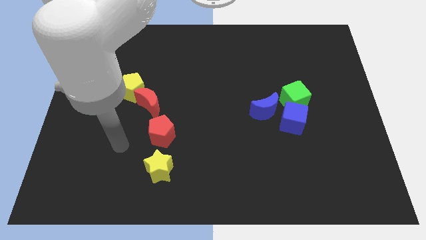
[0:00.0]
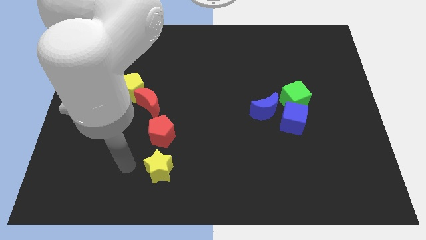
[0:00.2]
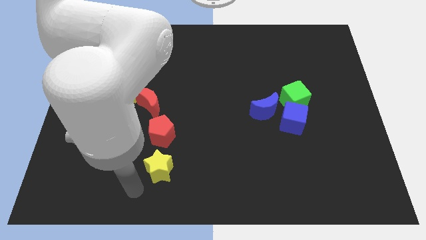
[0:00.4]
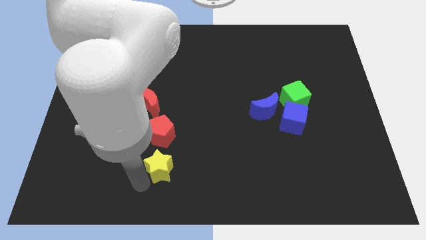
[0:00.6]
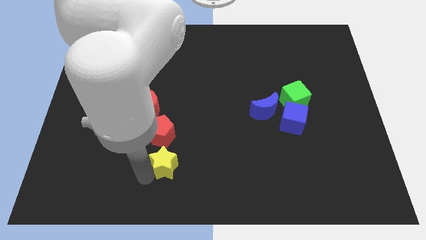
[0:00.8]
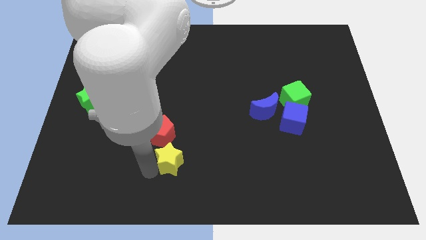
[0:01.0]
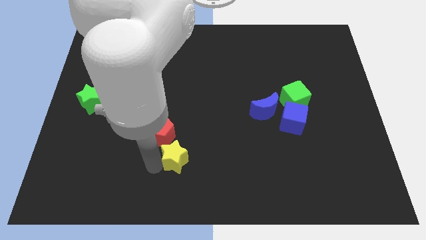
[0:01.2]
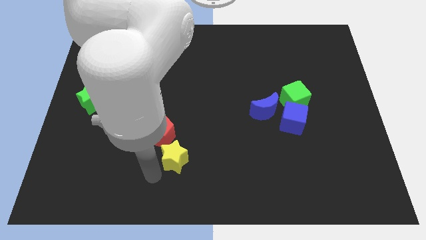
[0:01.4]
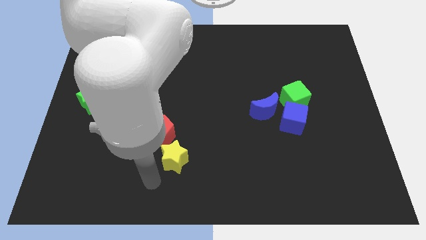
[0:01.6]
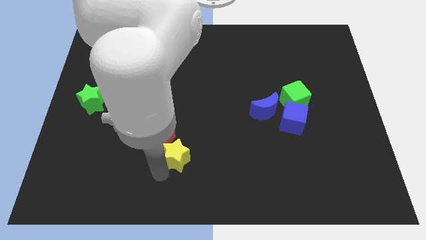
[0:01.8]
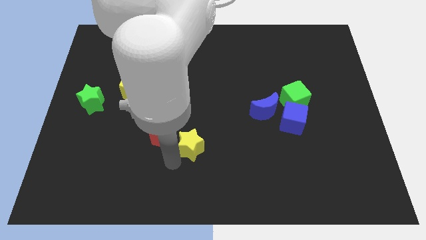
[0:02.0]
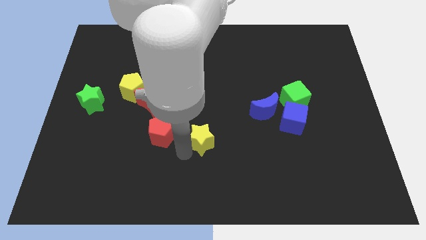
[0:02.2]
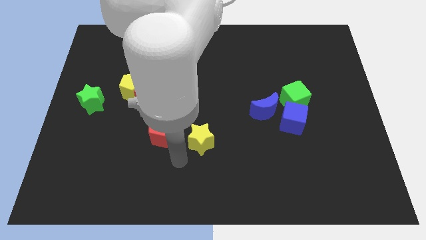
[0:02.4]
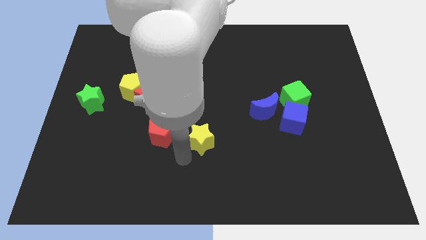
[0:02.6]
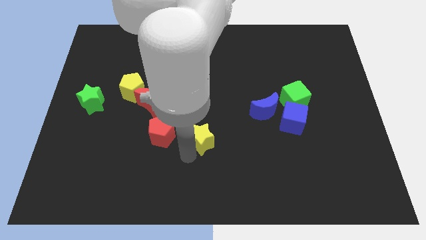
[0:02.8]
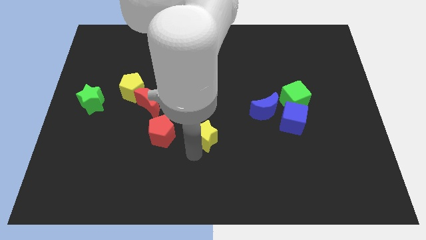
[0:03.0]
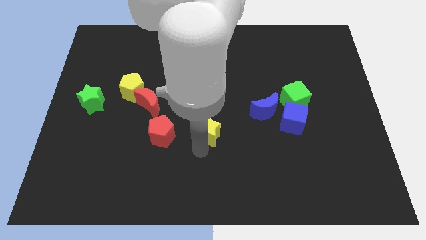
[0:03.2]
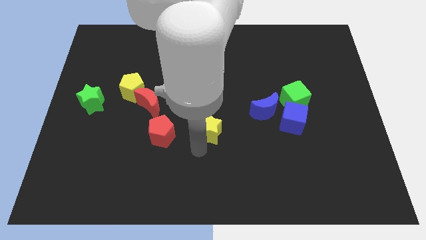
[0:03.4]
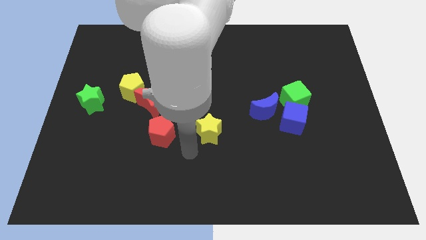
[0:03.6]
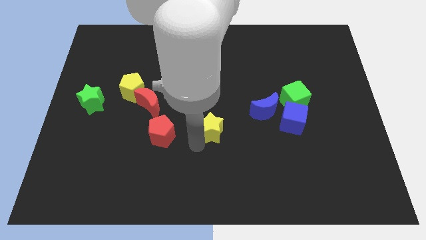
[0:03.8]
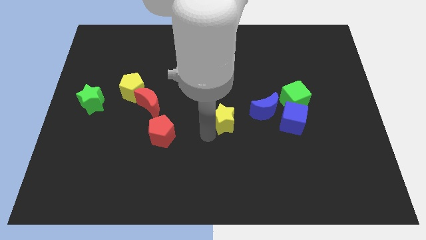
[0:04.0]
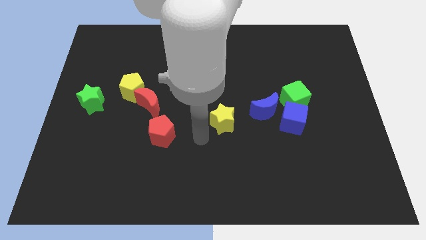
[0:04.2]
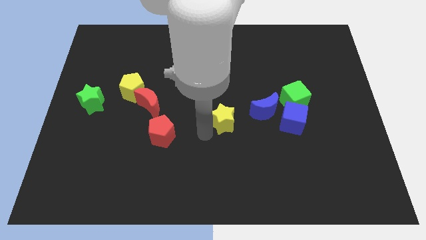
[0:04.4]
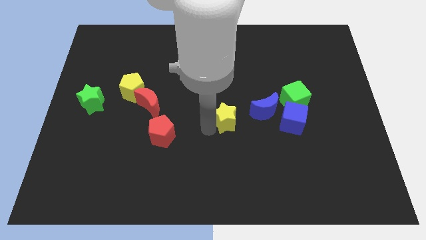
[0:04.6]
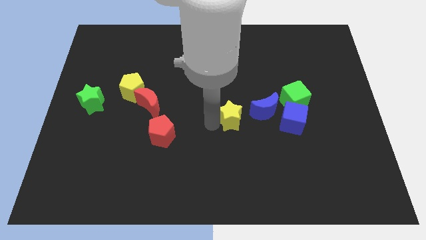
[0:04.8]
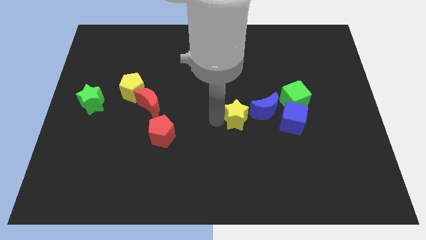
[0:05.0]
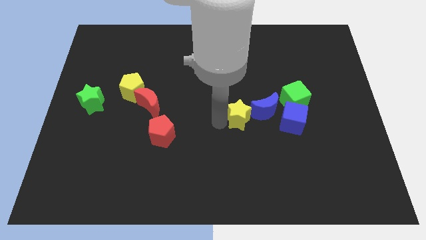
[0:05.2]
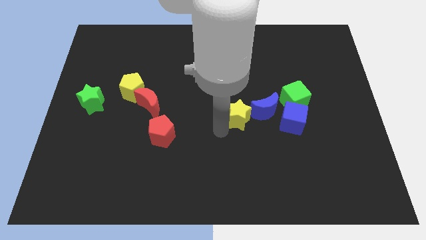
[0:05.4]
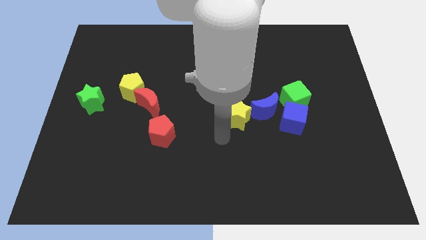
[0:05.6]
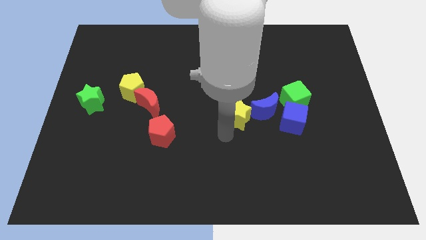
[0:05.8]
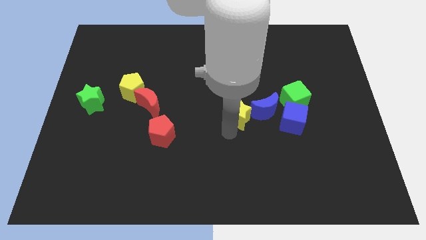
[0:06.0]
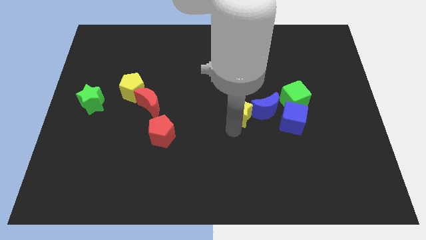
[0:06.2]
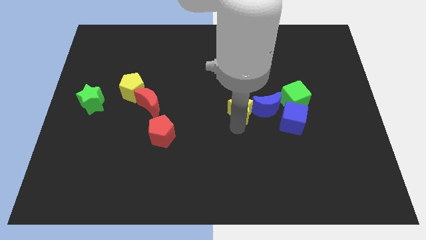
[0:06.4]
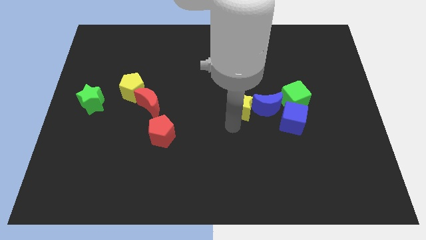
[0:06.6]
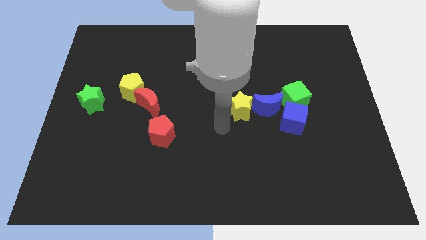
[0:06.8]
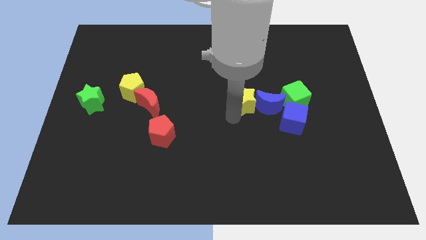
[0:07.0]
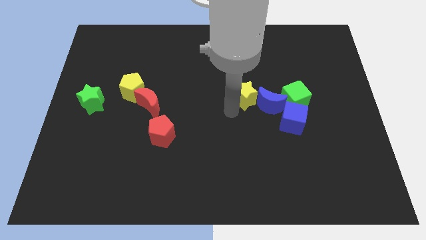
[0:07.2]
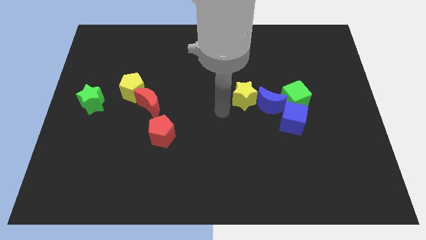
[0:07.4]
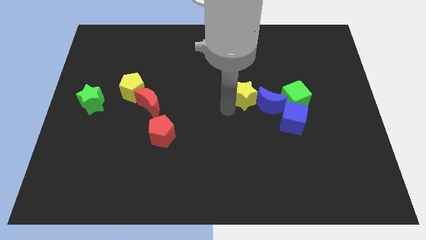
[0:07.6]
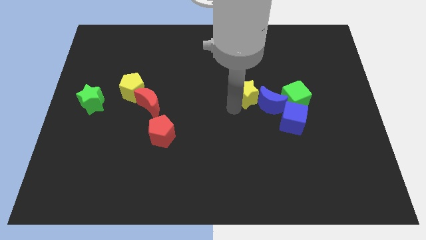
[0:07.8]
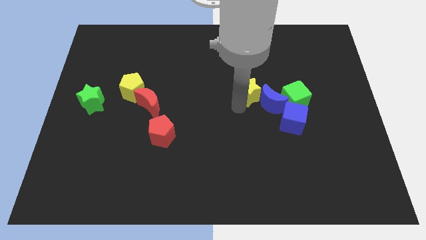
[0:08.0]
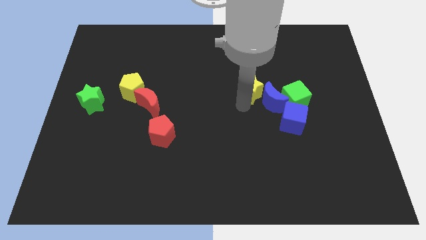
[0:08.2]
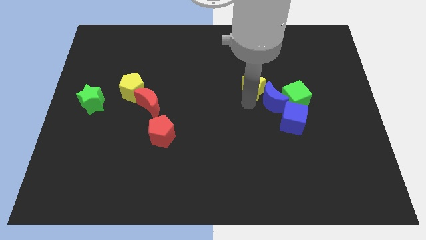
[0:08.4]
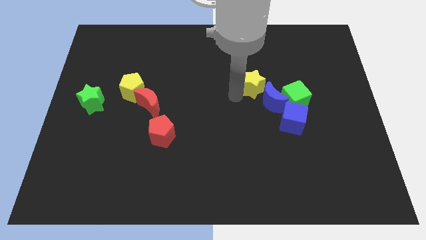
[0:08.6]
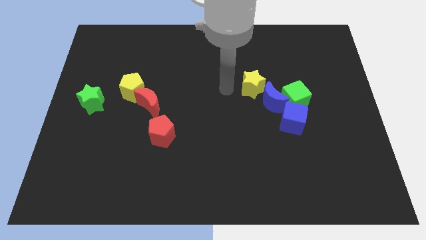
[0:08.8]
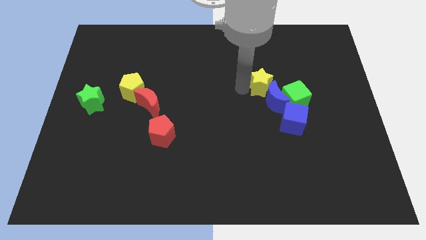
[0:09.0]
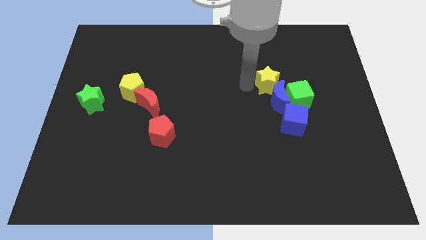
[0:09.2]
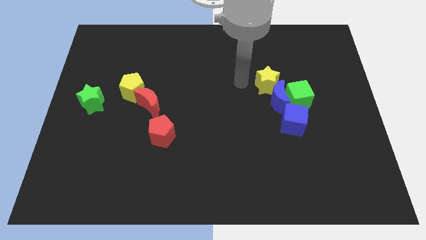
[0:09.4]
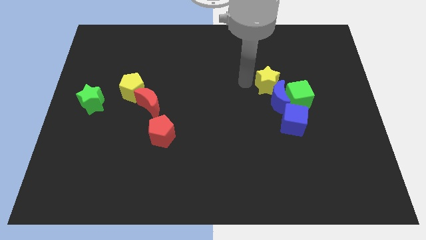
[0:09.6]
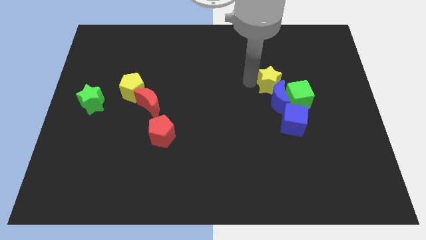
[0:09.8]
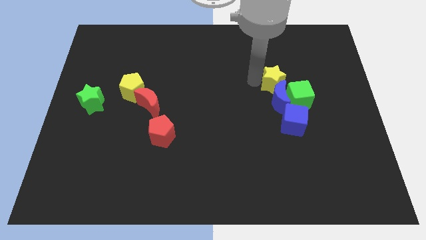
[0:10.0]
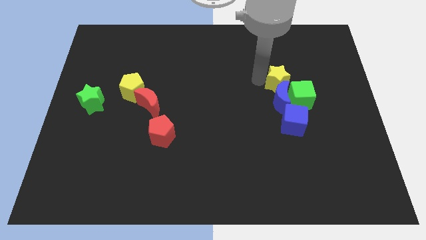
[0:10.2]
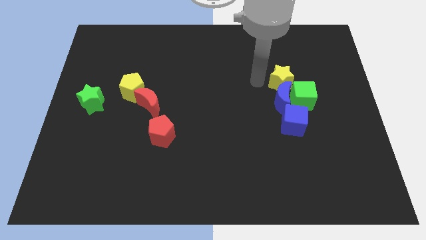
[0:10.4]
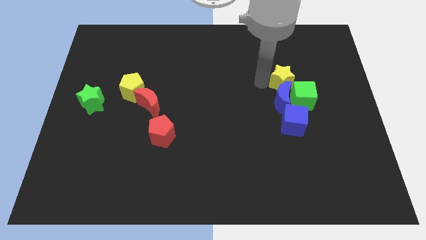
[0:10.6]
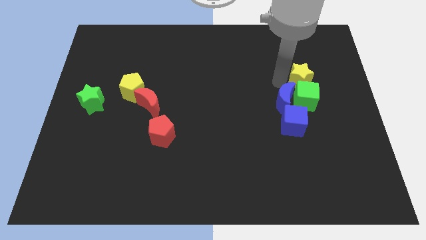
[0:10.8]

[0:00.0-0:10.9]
push the yellow star to the top right side of the green cube

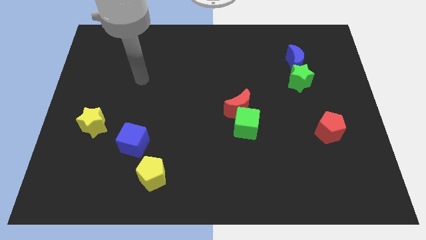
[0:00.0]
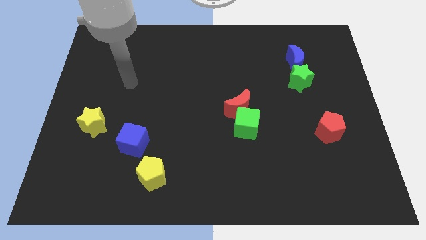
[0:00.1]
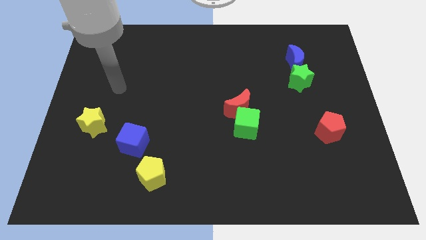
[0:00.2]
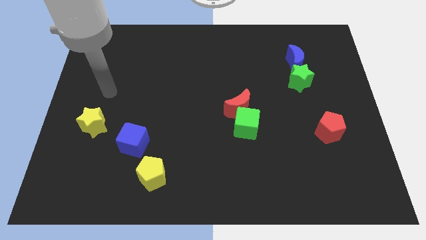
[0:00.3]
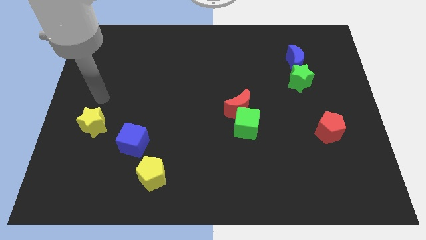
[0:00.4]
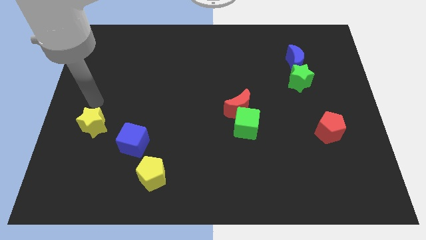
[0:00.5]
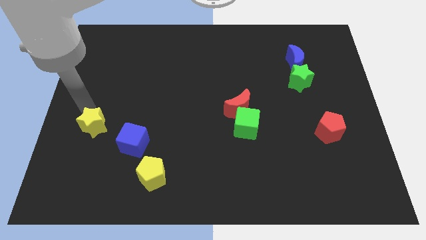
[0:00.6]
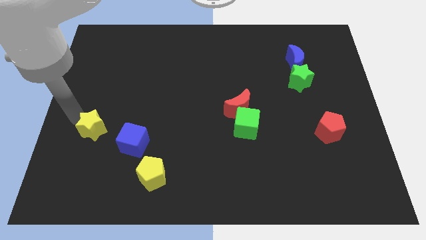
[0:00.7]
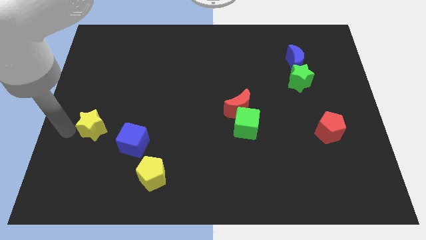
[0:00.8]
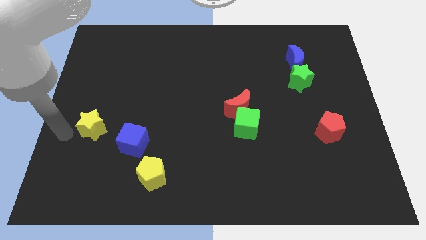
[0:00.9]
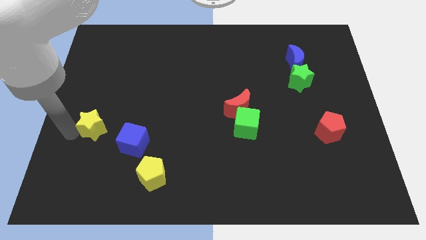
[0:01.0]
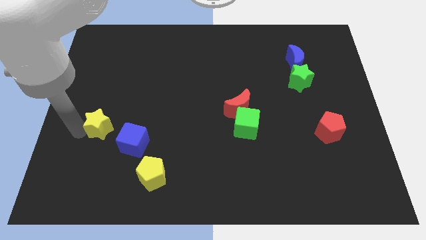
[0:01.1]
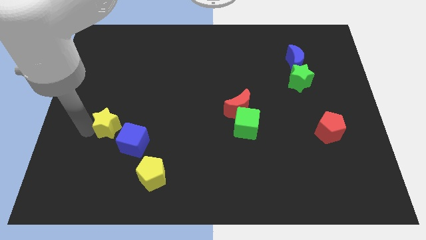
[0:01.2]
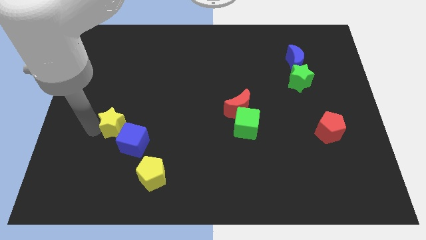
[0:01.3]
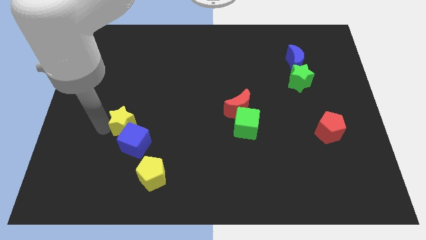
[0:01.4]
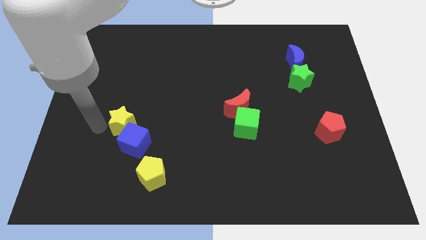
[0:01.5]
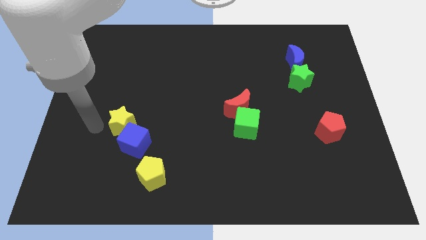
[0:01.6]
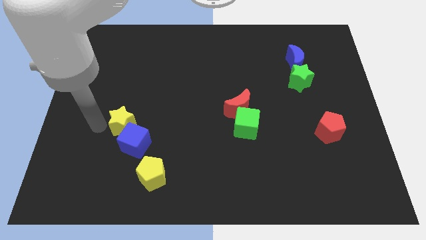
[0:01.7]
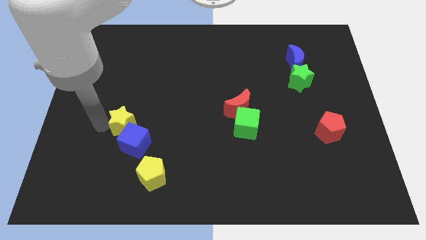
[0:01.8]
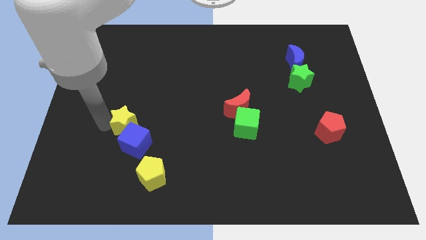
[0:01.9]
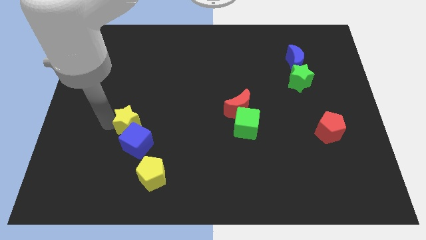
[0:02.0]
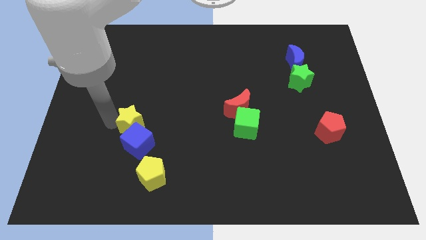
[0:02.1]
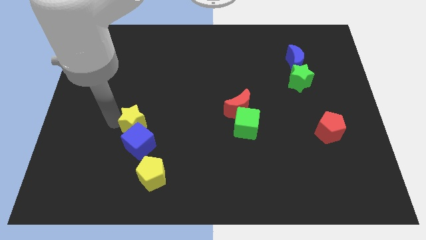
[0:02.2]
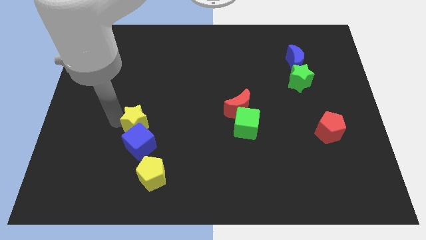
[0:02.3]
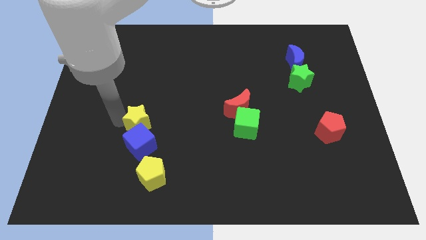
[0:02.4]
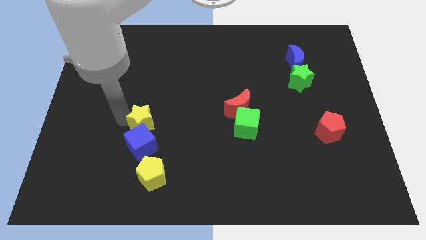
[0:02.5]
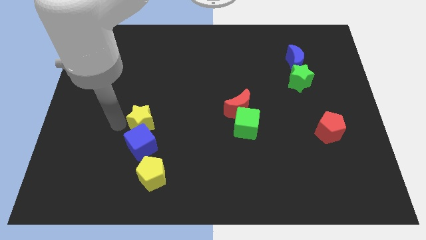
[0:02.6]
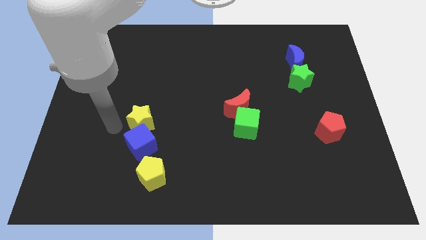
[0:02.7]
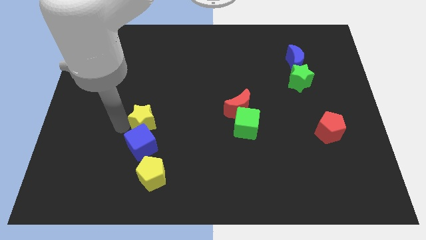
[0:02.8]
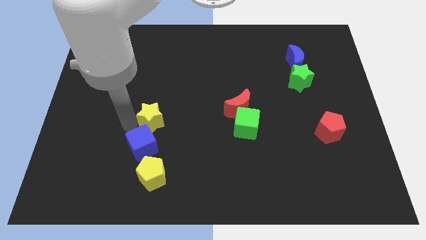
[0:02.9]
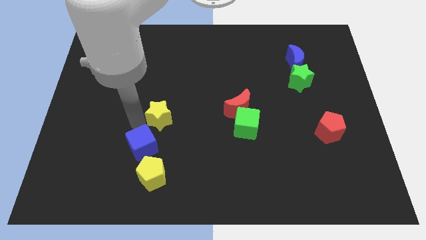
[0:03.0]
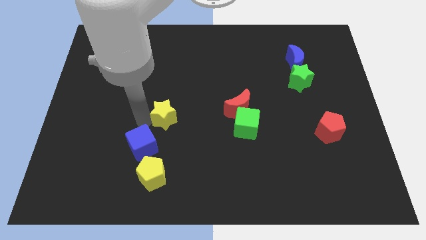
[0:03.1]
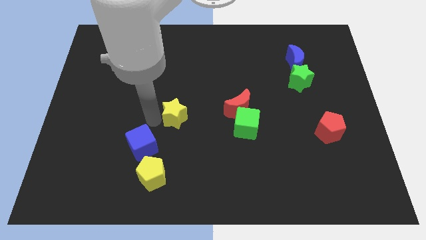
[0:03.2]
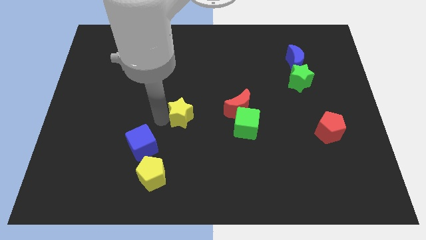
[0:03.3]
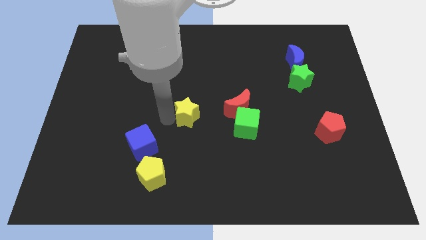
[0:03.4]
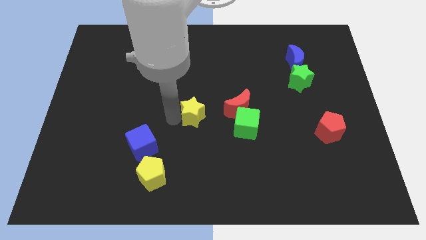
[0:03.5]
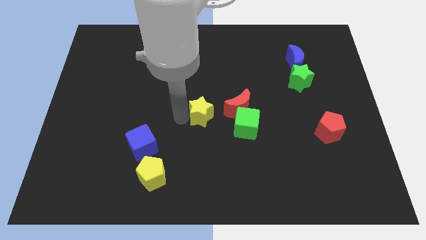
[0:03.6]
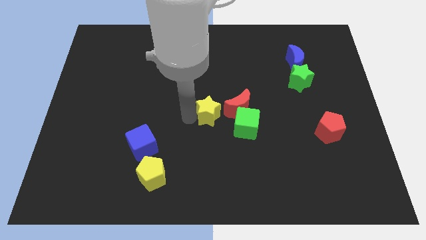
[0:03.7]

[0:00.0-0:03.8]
move the yellow star diagonally up and to the left of the green cube
